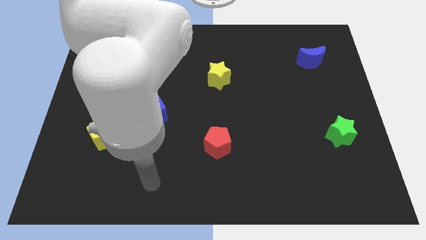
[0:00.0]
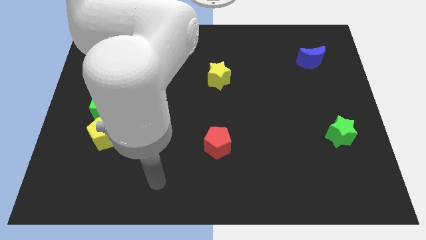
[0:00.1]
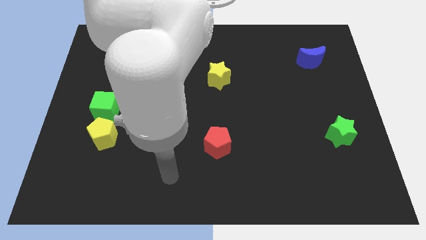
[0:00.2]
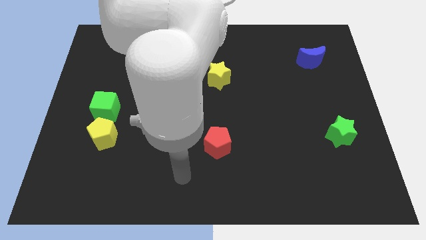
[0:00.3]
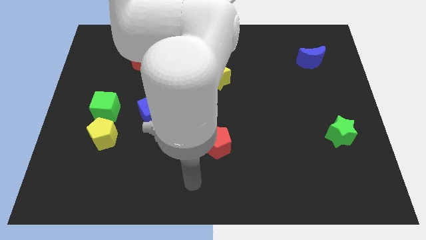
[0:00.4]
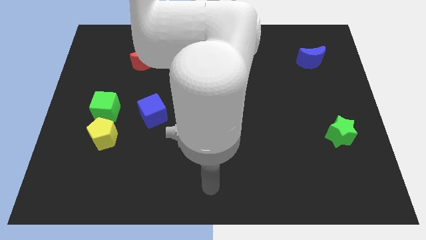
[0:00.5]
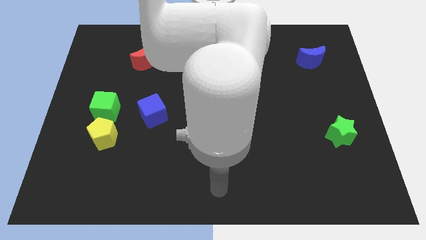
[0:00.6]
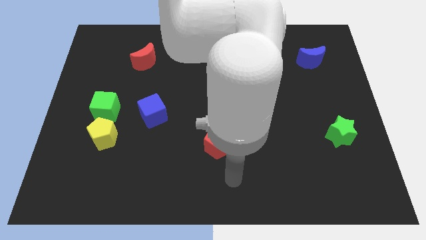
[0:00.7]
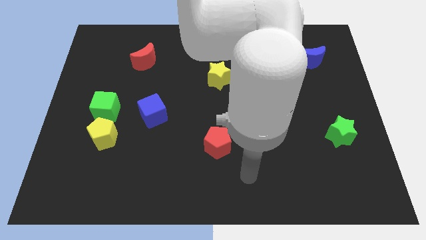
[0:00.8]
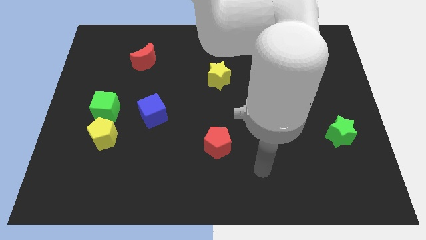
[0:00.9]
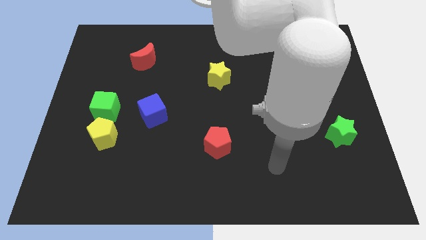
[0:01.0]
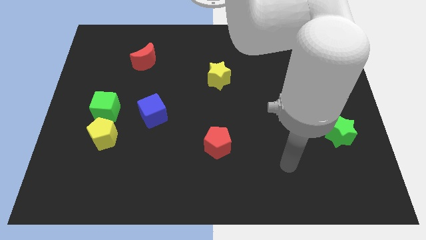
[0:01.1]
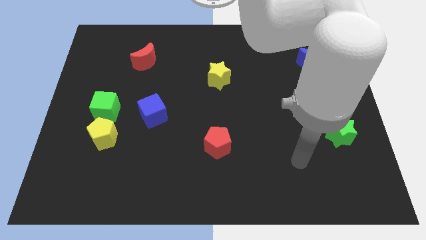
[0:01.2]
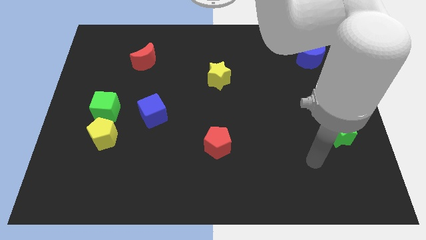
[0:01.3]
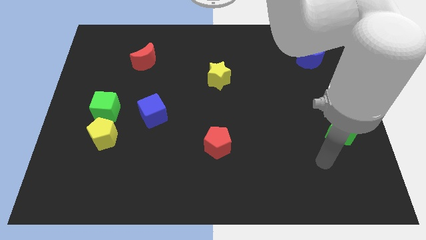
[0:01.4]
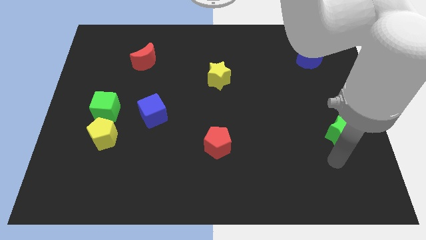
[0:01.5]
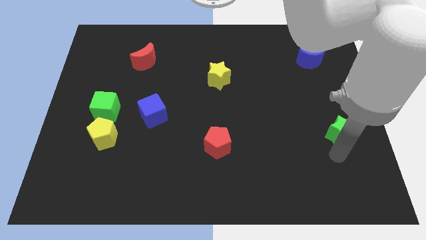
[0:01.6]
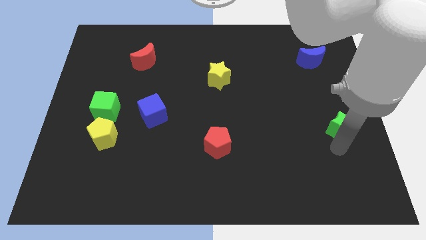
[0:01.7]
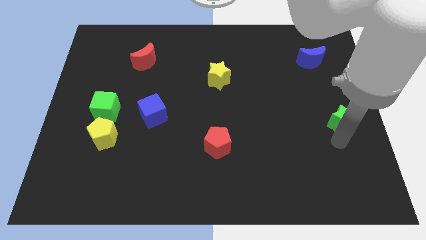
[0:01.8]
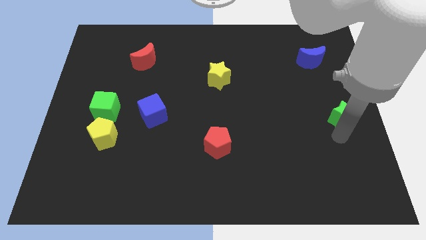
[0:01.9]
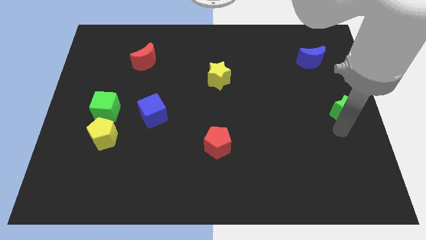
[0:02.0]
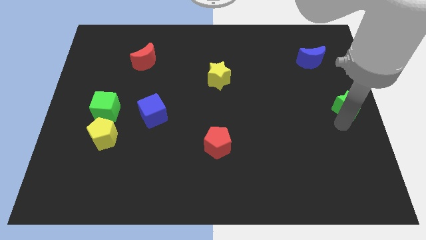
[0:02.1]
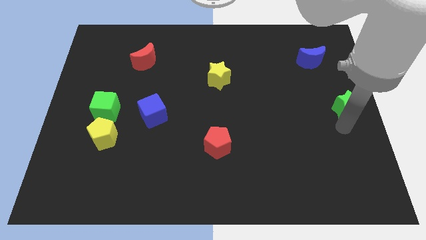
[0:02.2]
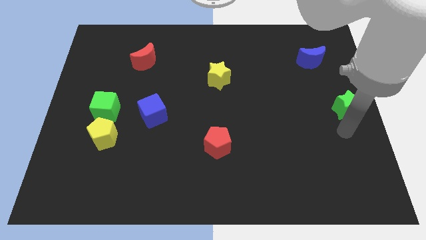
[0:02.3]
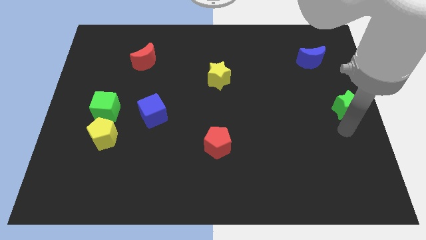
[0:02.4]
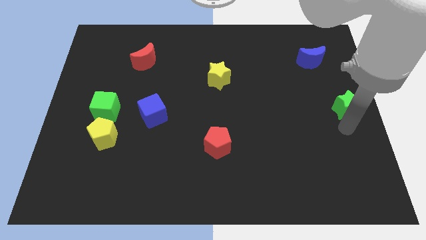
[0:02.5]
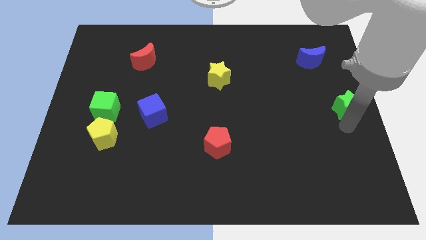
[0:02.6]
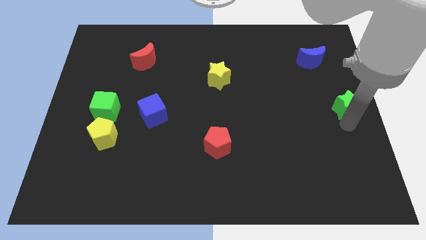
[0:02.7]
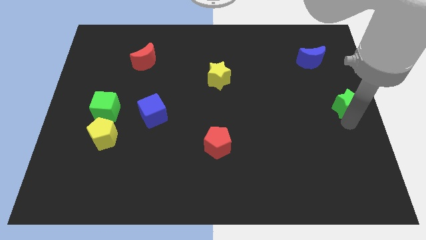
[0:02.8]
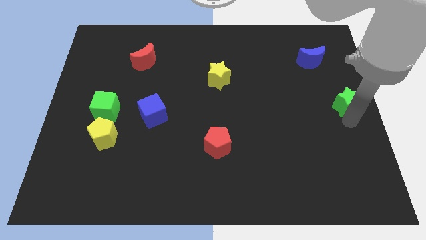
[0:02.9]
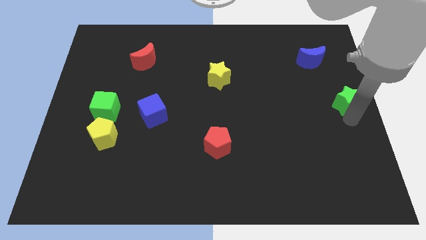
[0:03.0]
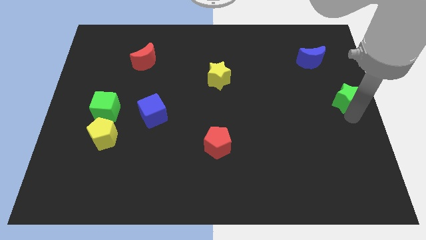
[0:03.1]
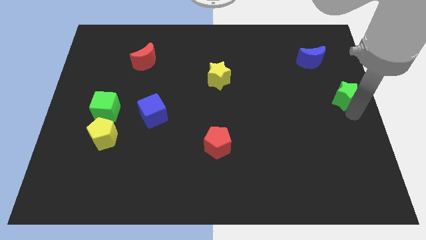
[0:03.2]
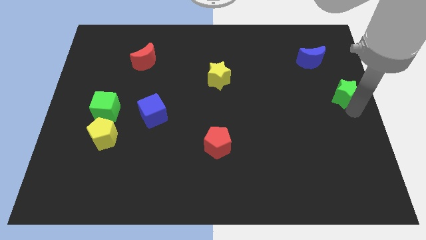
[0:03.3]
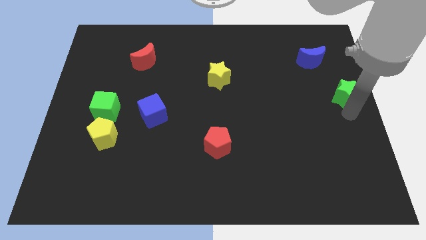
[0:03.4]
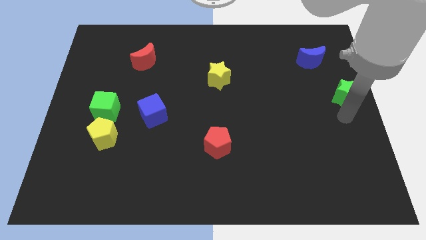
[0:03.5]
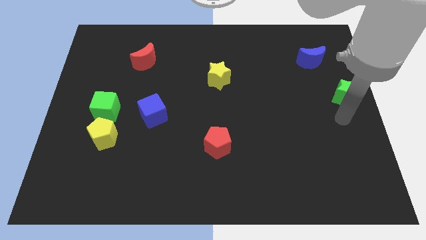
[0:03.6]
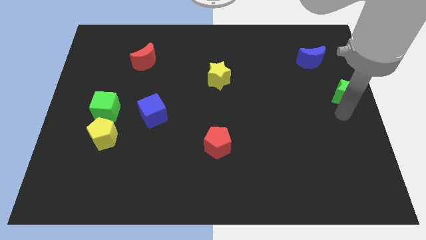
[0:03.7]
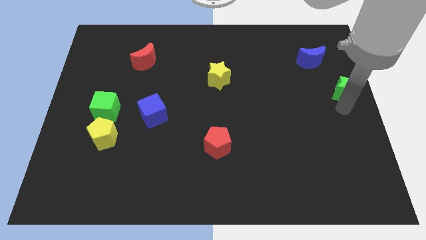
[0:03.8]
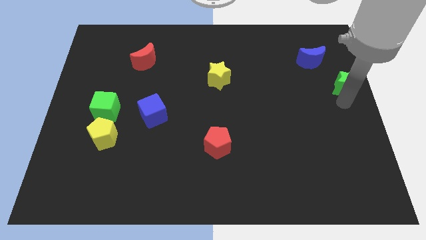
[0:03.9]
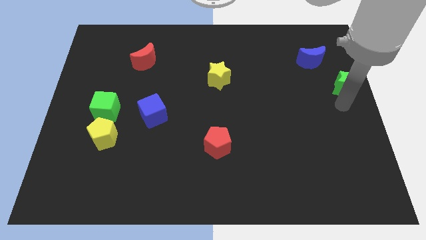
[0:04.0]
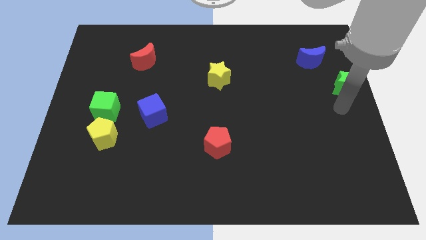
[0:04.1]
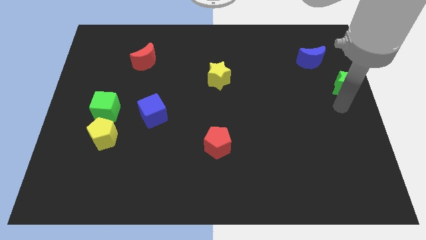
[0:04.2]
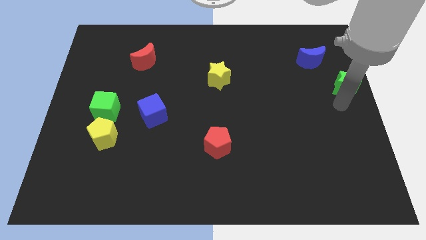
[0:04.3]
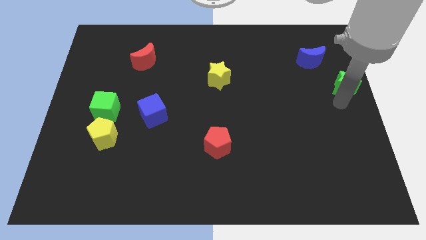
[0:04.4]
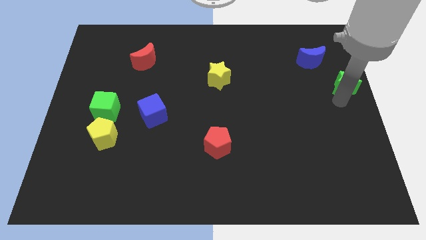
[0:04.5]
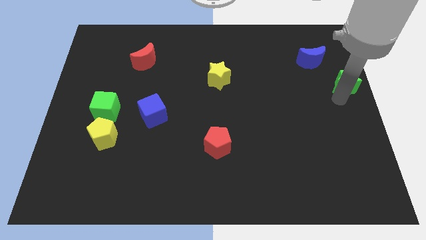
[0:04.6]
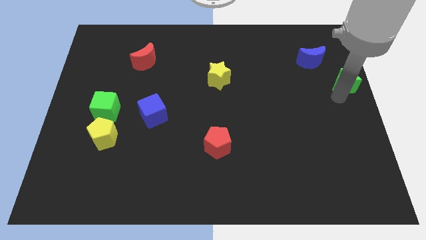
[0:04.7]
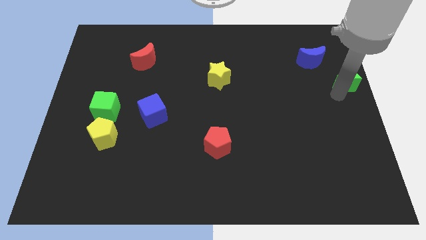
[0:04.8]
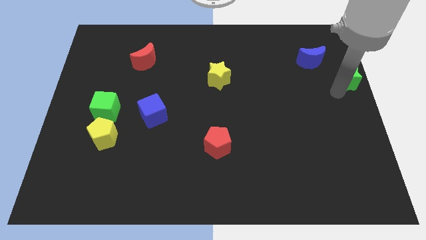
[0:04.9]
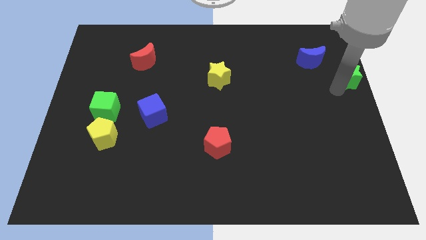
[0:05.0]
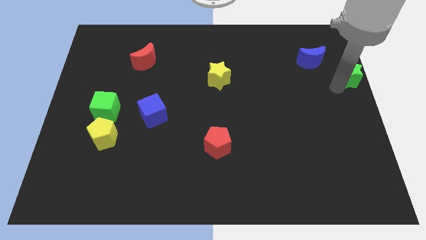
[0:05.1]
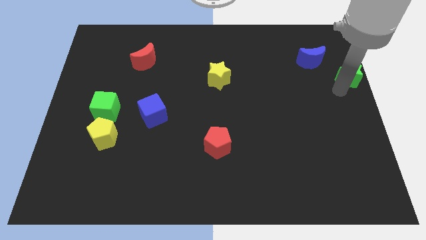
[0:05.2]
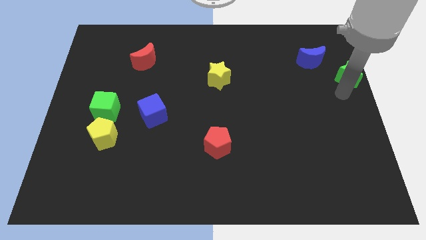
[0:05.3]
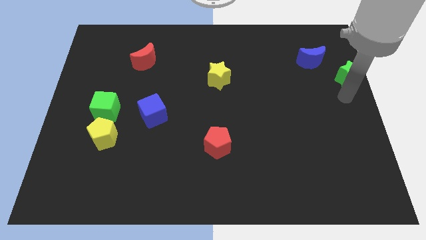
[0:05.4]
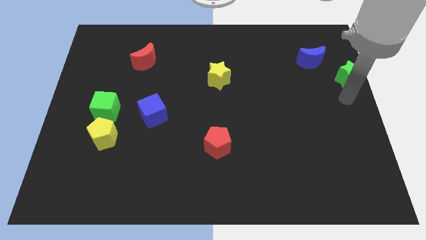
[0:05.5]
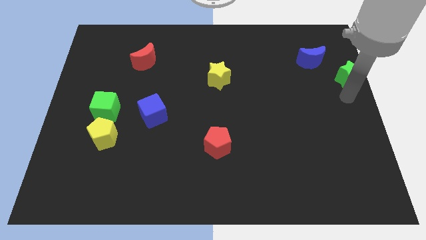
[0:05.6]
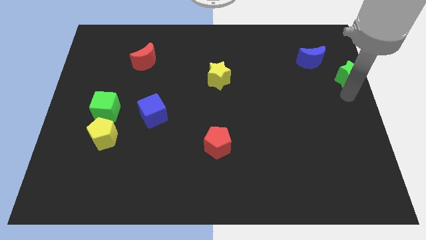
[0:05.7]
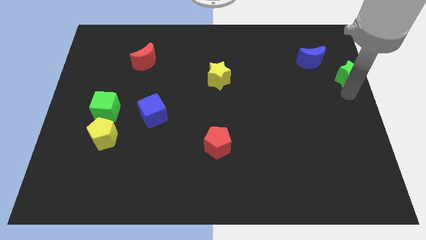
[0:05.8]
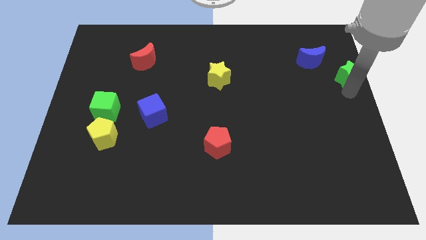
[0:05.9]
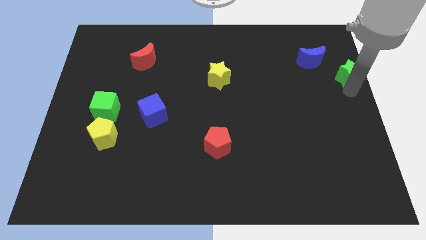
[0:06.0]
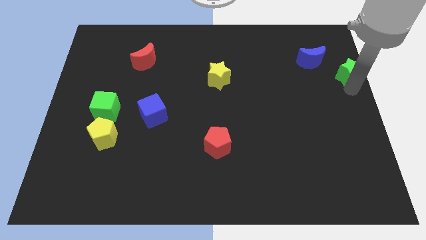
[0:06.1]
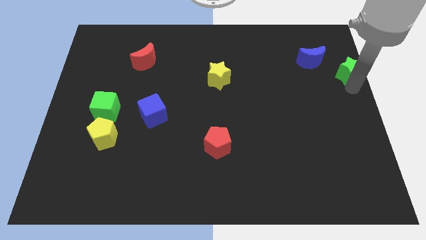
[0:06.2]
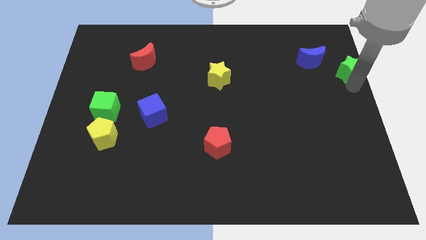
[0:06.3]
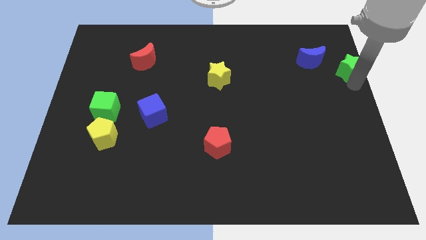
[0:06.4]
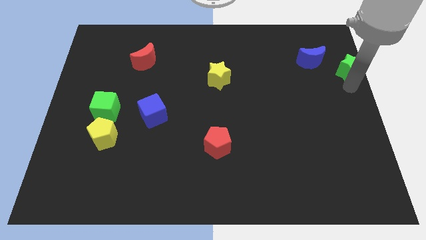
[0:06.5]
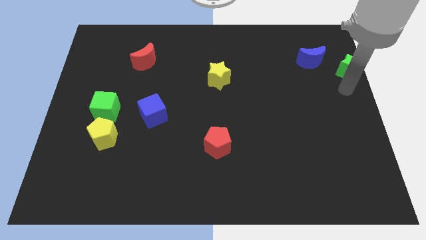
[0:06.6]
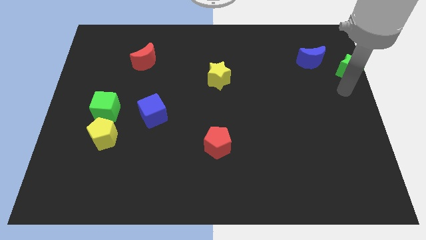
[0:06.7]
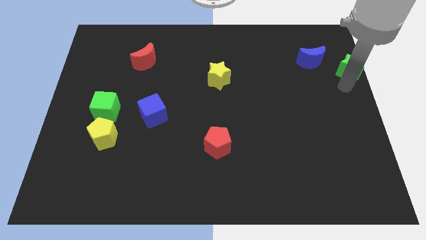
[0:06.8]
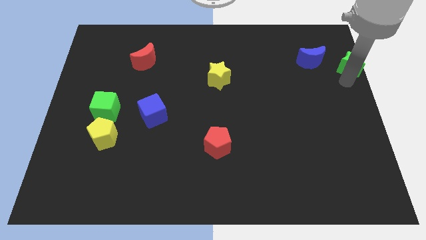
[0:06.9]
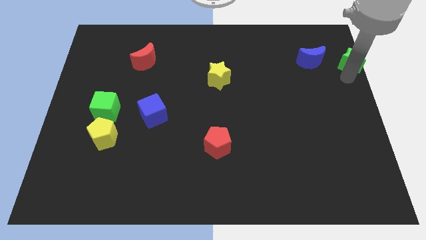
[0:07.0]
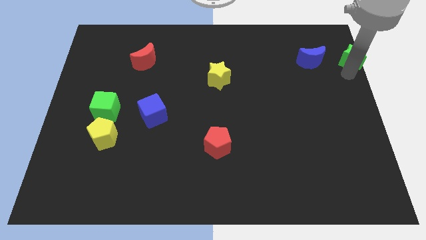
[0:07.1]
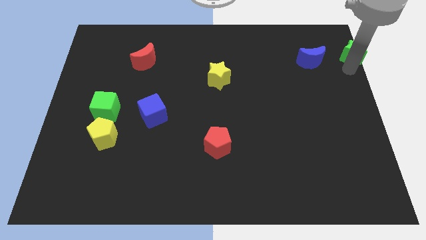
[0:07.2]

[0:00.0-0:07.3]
put the green star to the top right corner
